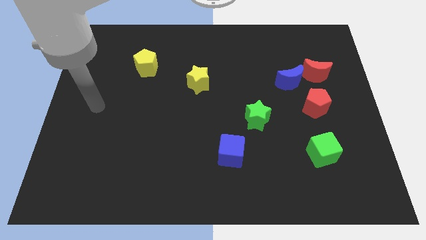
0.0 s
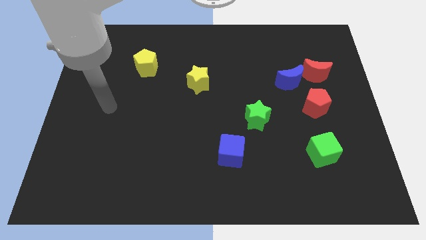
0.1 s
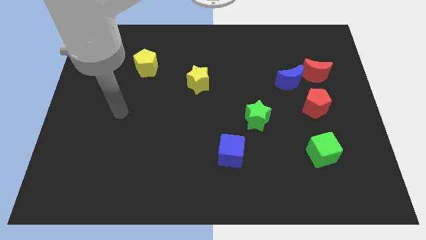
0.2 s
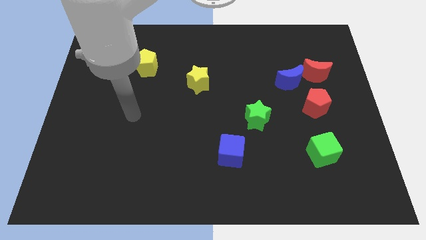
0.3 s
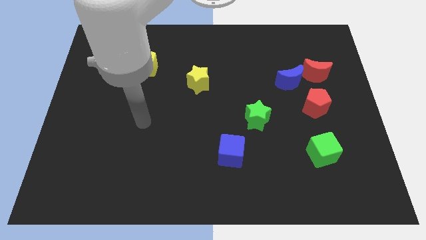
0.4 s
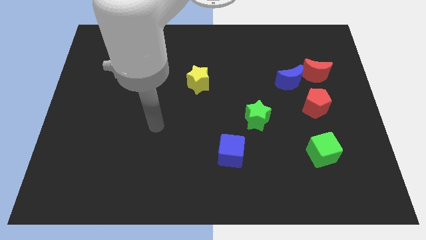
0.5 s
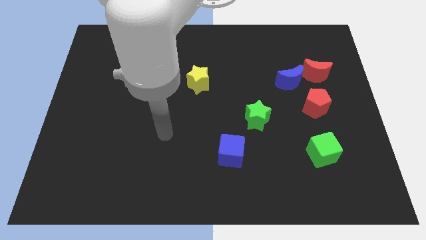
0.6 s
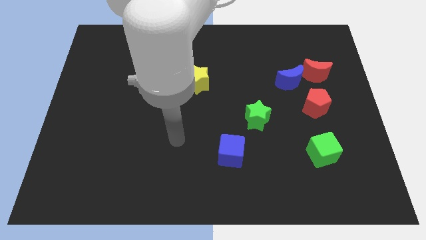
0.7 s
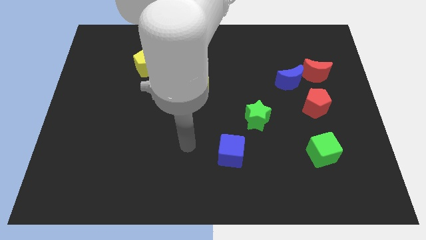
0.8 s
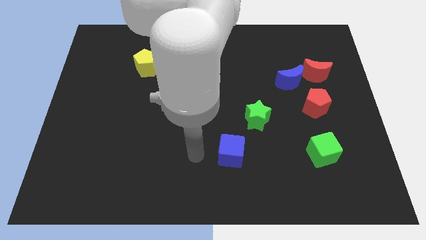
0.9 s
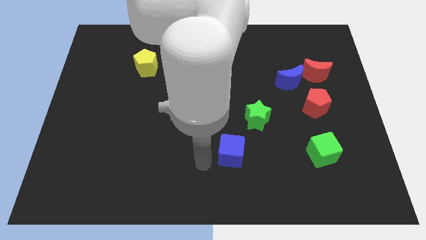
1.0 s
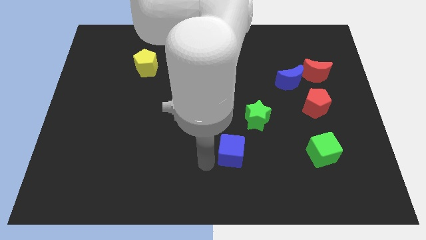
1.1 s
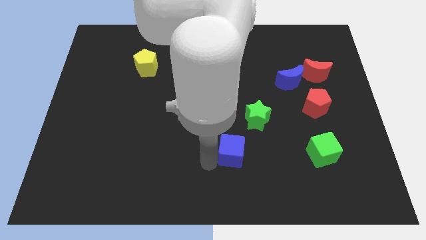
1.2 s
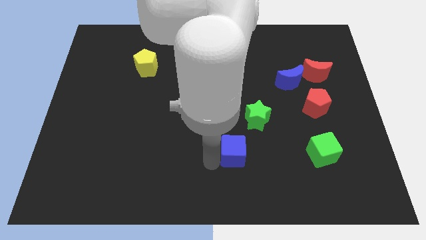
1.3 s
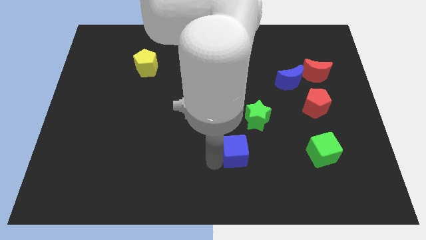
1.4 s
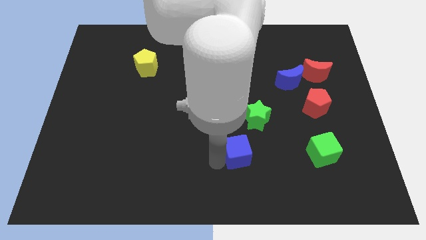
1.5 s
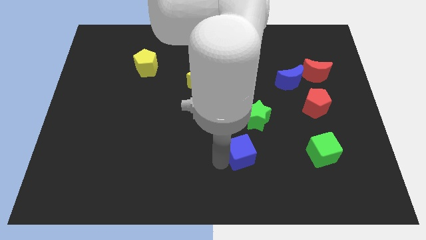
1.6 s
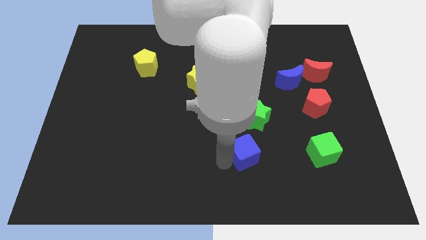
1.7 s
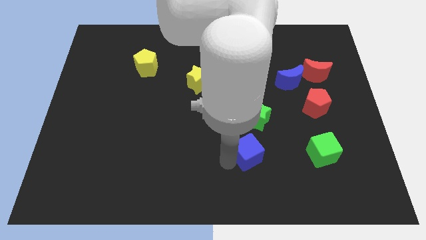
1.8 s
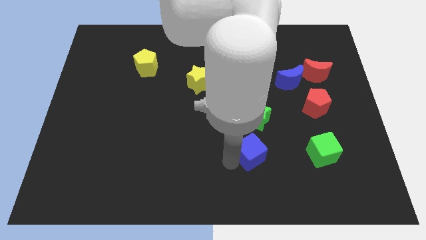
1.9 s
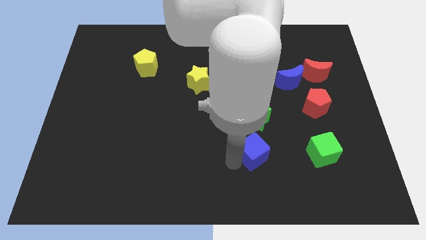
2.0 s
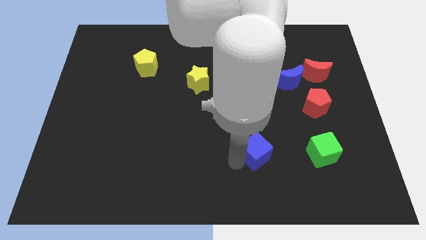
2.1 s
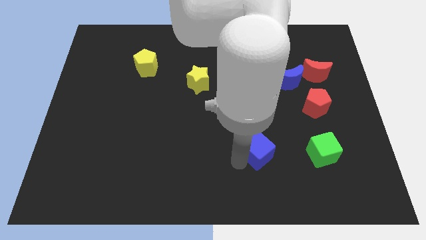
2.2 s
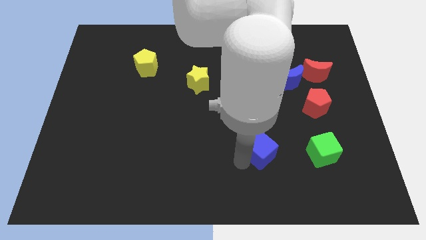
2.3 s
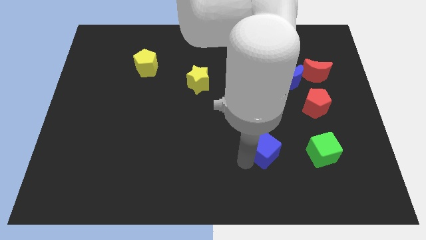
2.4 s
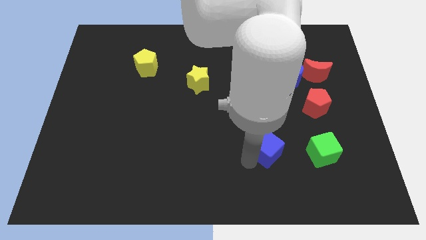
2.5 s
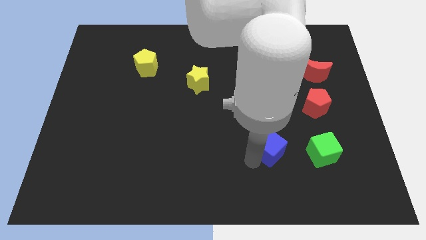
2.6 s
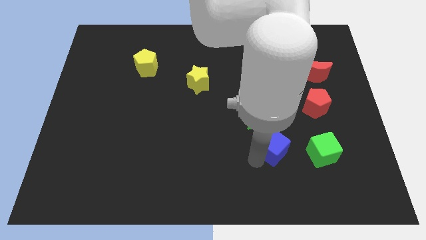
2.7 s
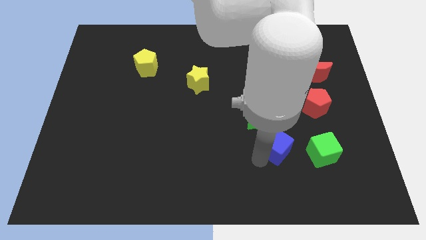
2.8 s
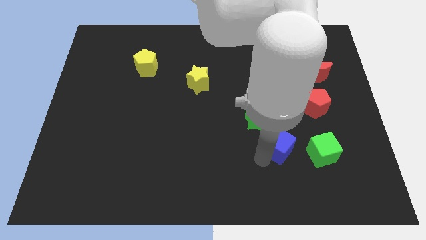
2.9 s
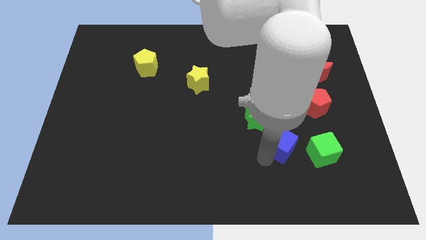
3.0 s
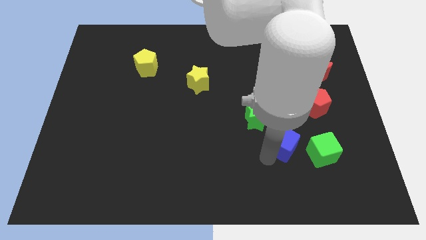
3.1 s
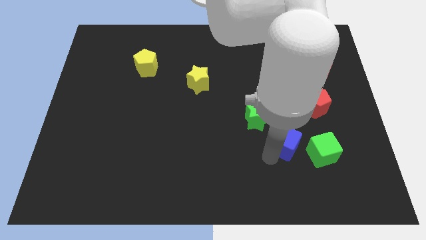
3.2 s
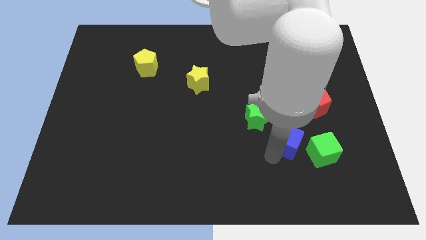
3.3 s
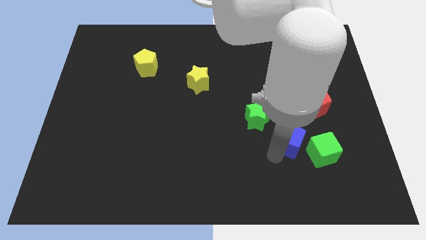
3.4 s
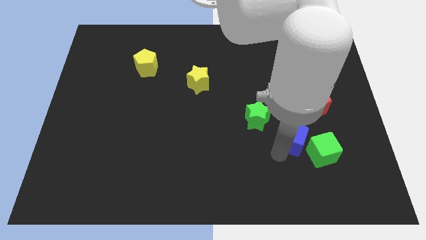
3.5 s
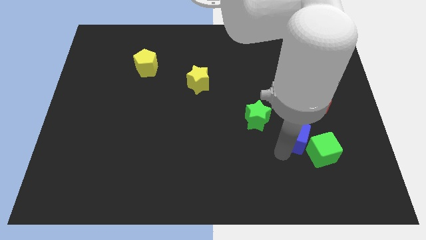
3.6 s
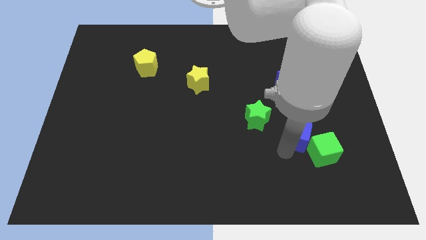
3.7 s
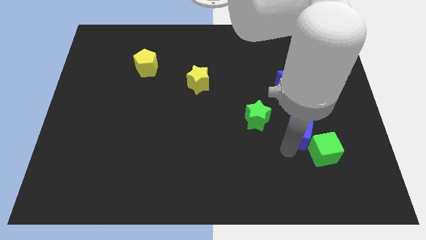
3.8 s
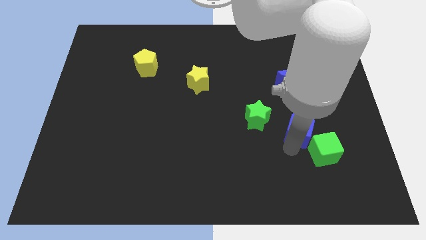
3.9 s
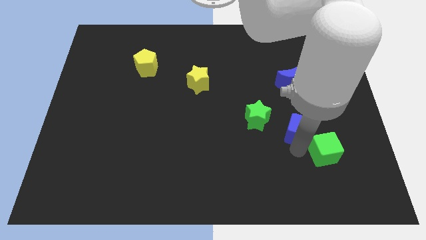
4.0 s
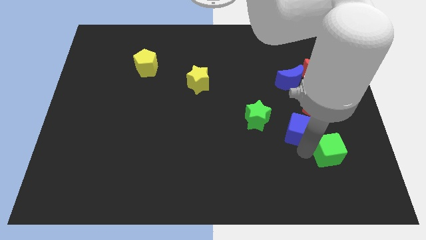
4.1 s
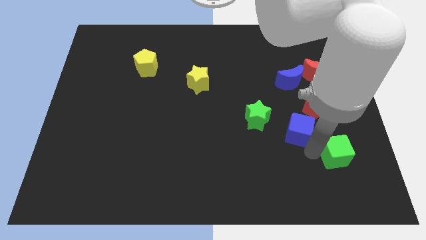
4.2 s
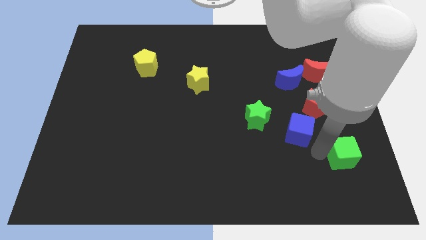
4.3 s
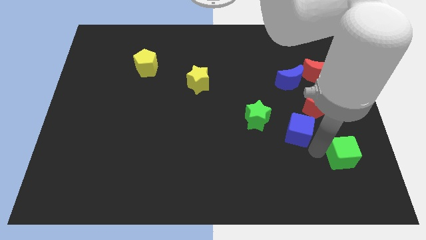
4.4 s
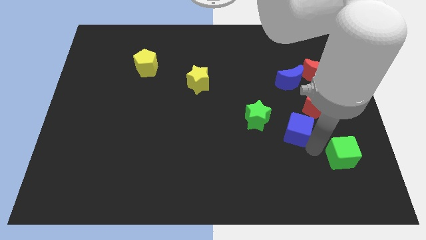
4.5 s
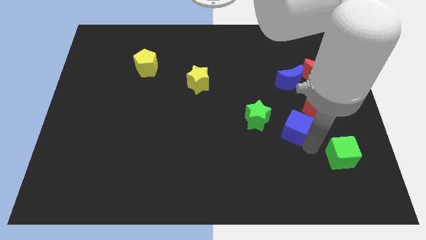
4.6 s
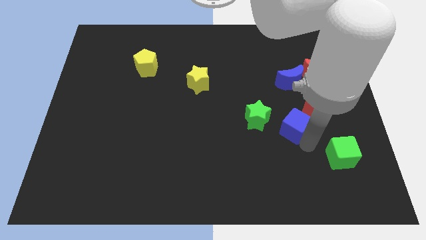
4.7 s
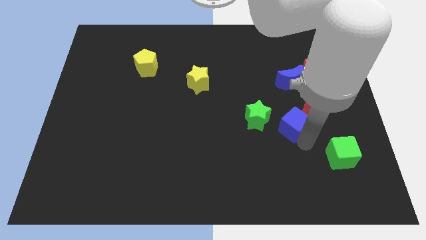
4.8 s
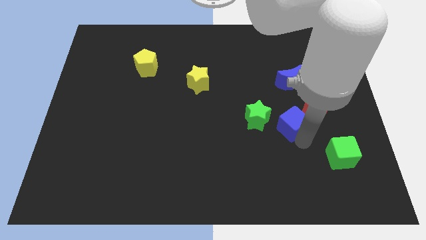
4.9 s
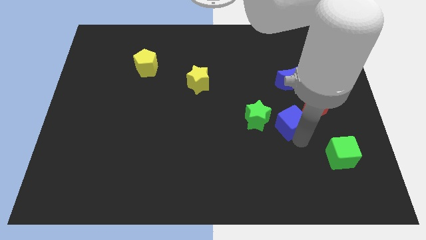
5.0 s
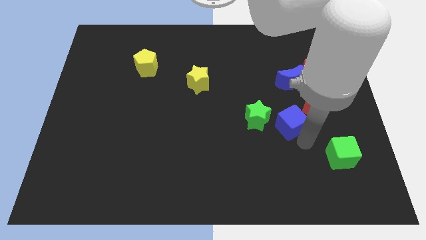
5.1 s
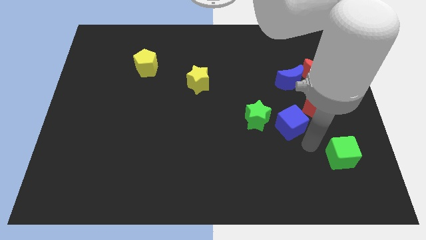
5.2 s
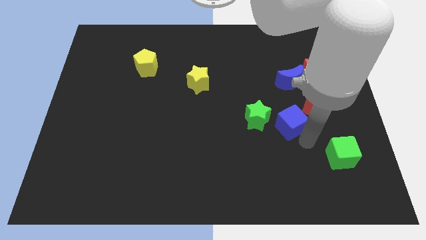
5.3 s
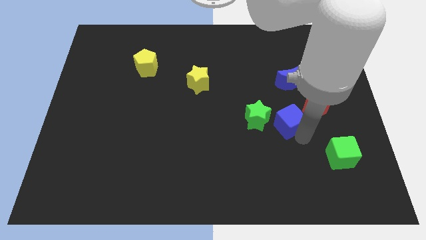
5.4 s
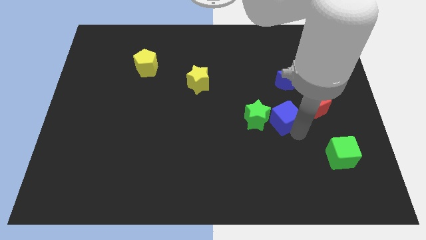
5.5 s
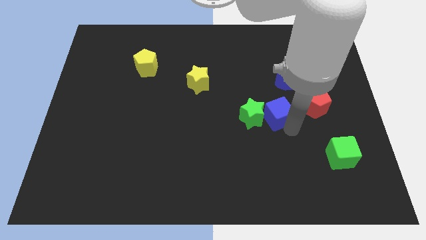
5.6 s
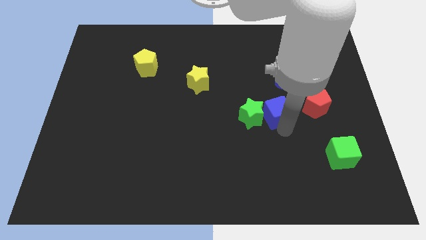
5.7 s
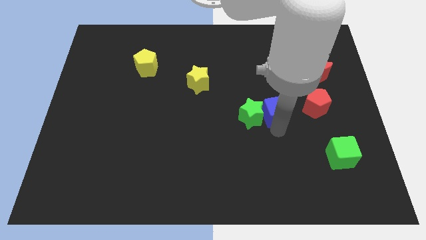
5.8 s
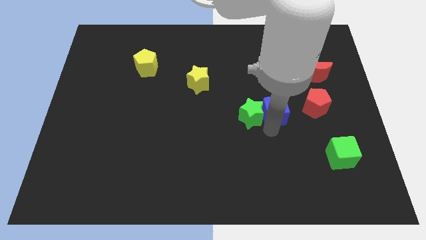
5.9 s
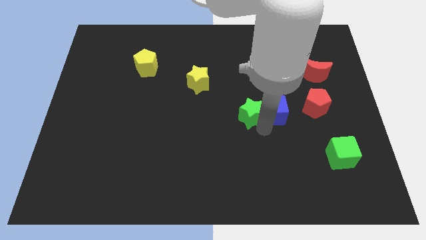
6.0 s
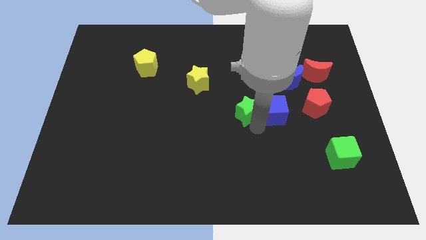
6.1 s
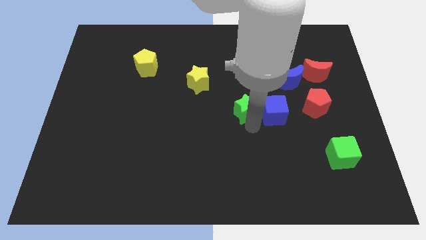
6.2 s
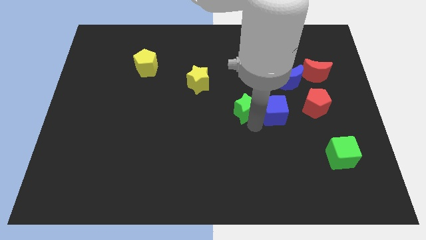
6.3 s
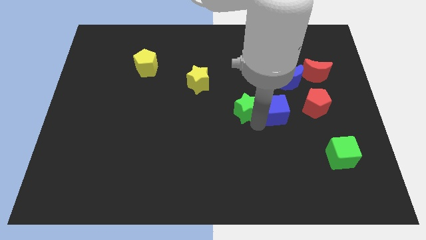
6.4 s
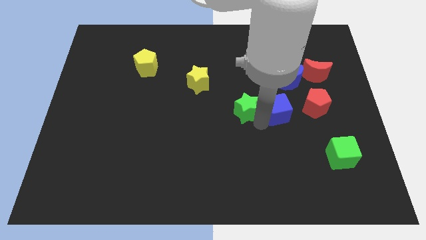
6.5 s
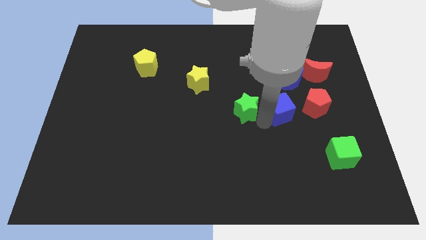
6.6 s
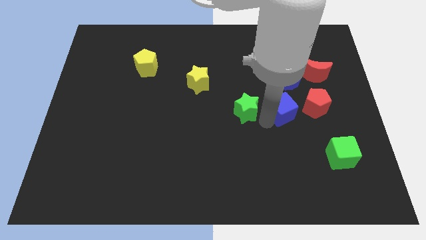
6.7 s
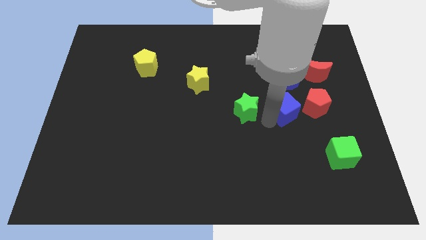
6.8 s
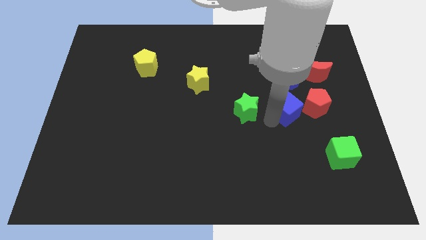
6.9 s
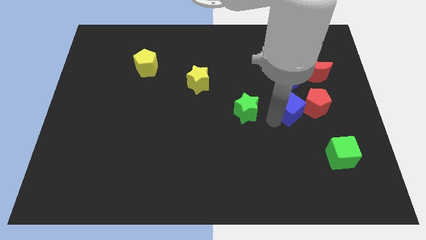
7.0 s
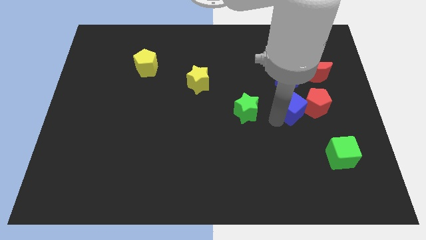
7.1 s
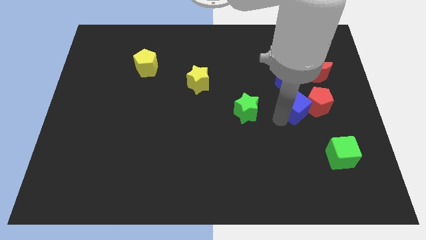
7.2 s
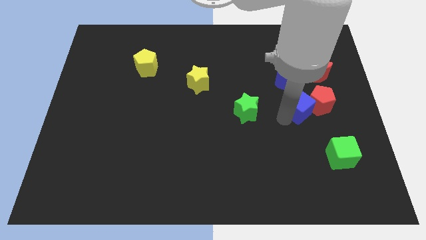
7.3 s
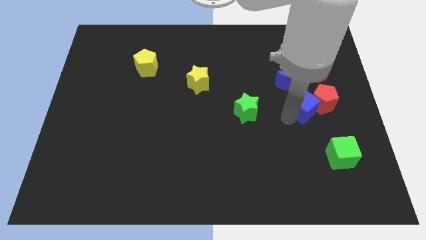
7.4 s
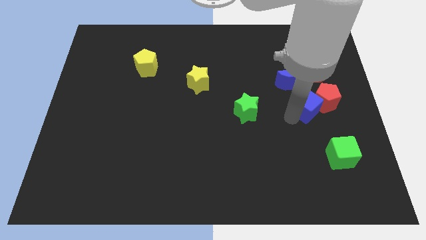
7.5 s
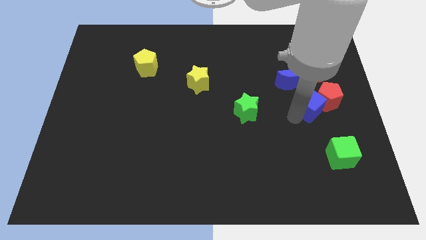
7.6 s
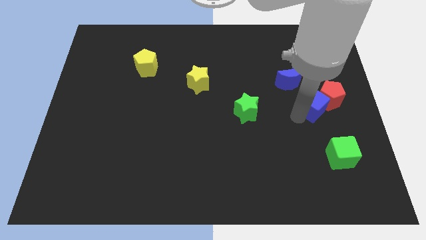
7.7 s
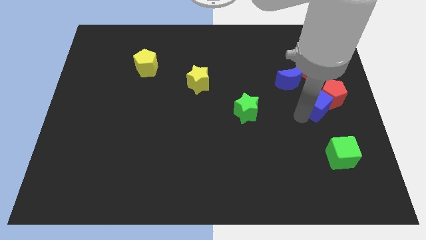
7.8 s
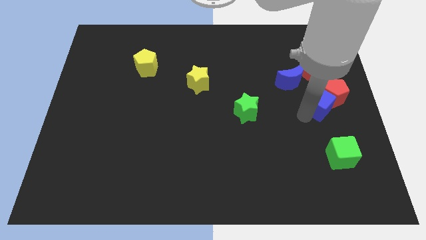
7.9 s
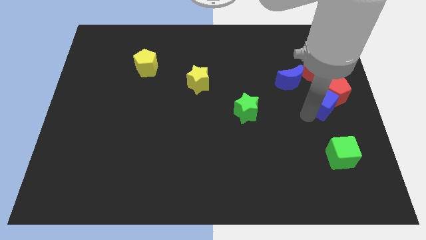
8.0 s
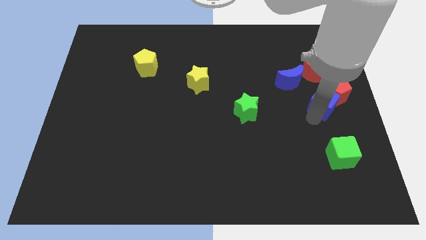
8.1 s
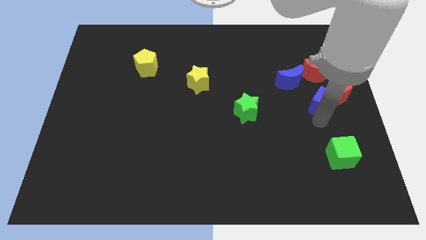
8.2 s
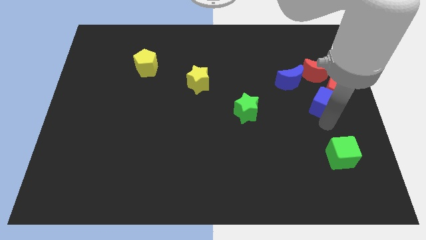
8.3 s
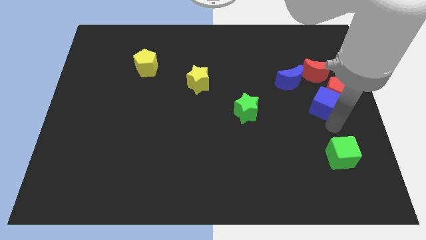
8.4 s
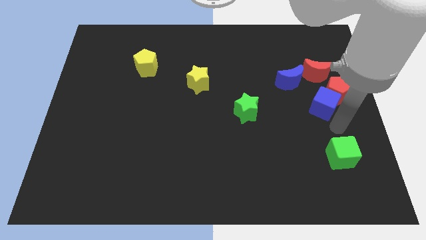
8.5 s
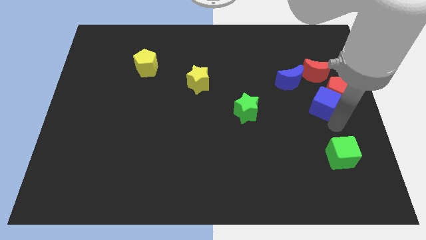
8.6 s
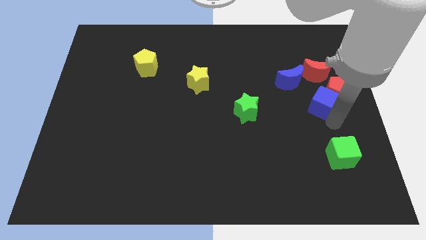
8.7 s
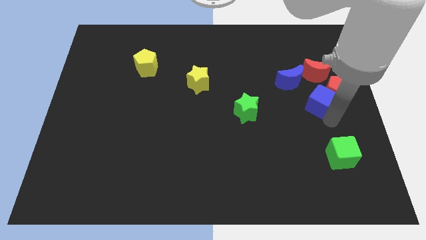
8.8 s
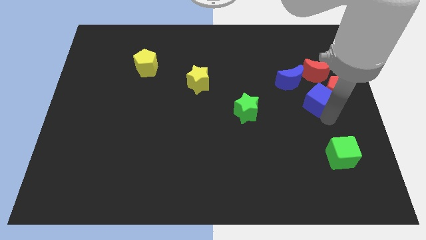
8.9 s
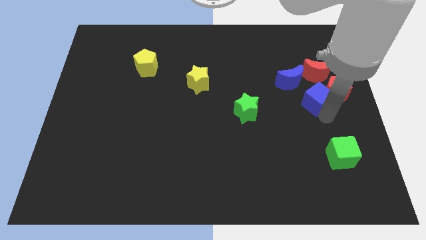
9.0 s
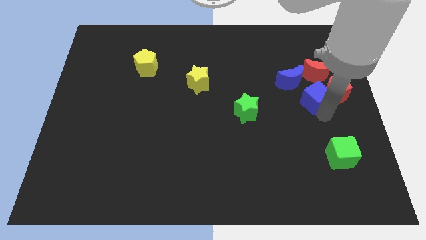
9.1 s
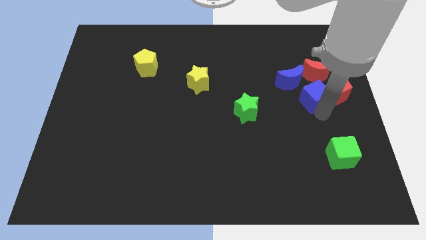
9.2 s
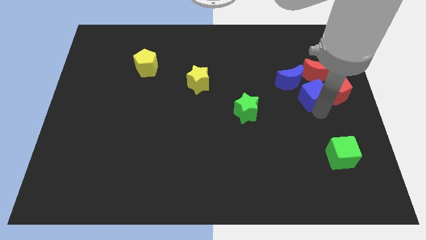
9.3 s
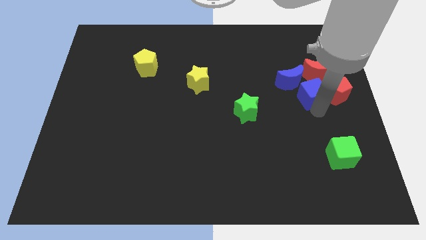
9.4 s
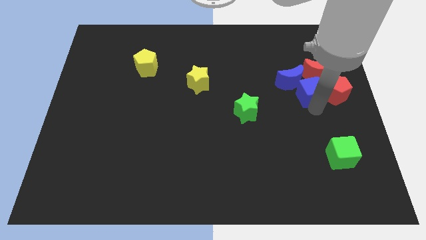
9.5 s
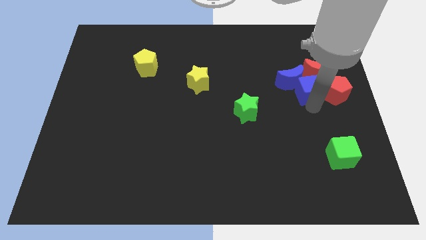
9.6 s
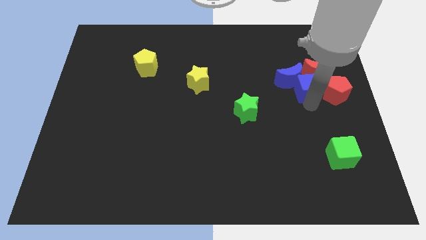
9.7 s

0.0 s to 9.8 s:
move the blue cube towards the red moon
